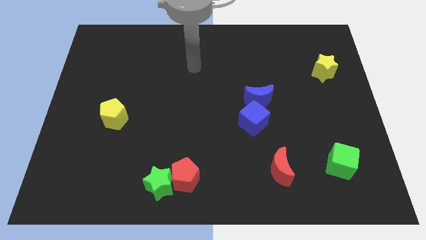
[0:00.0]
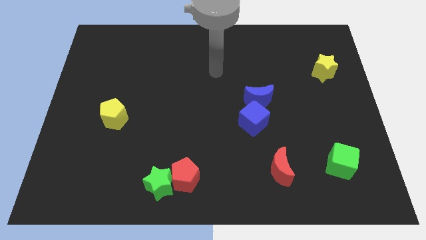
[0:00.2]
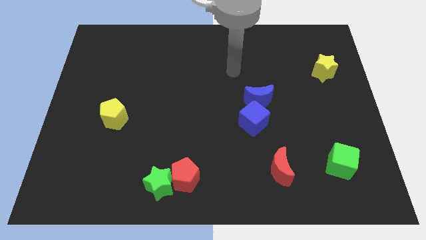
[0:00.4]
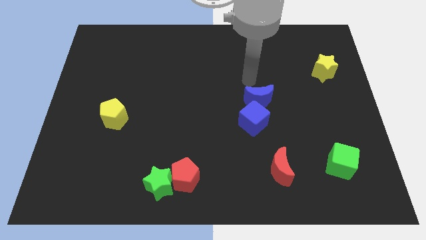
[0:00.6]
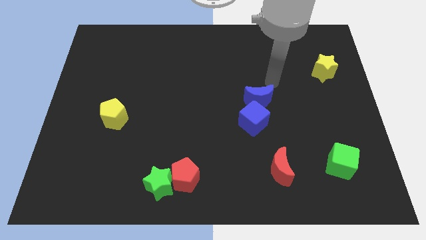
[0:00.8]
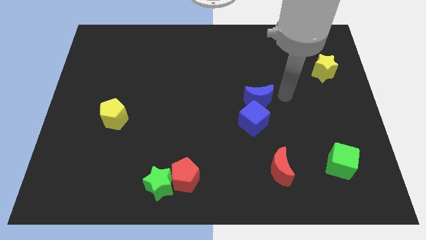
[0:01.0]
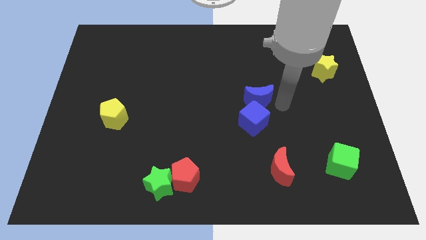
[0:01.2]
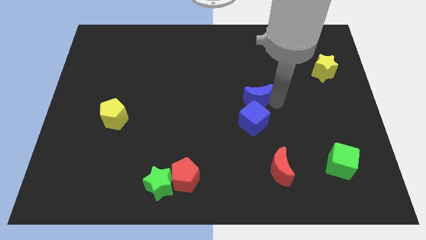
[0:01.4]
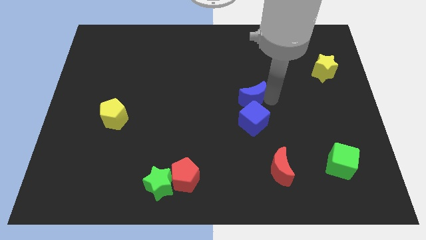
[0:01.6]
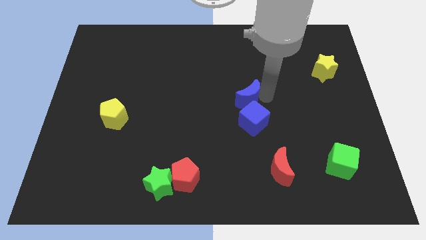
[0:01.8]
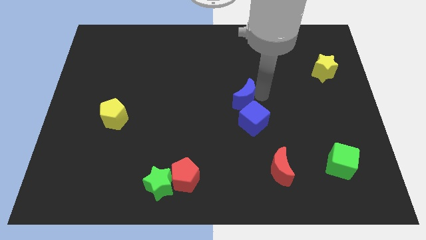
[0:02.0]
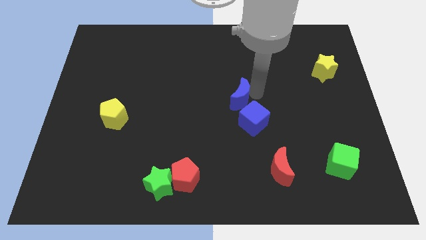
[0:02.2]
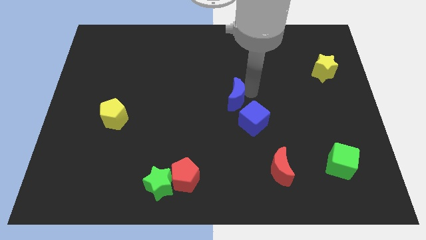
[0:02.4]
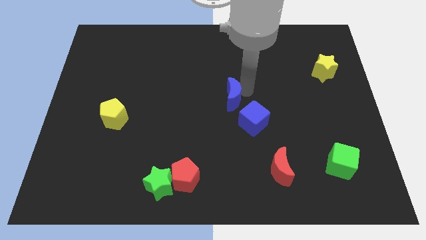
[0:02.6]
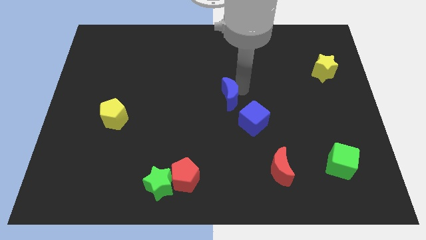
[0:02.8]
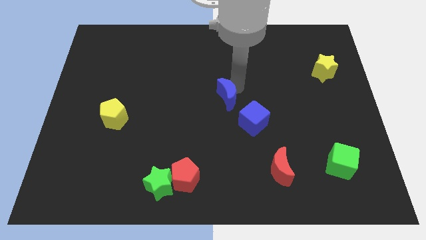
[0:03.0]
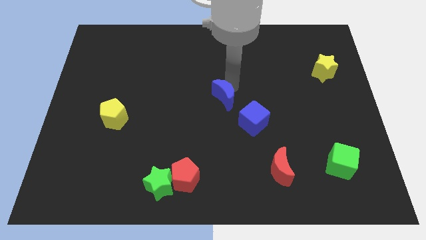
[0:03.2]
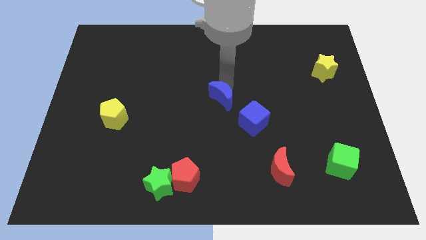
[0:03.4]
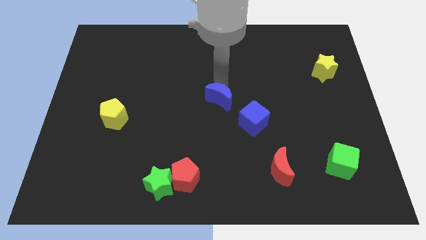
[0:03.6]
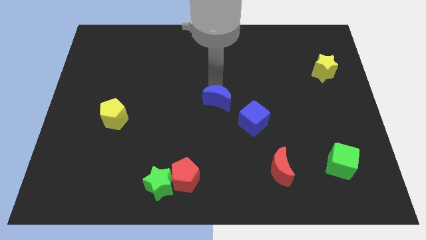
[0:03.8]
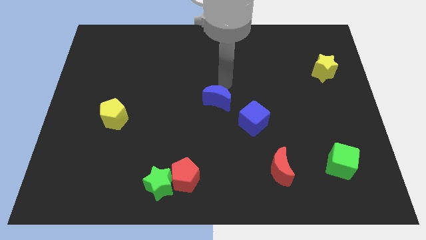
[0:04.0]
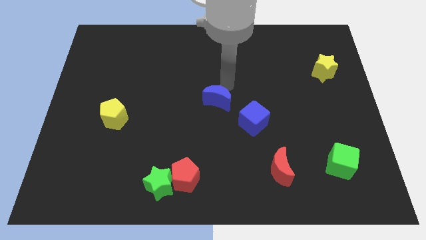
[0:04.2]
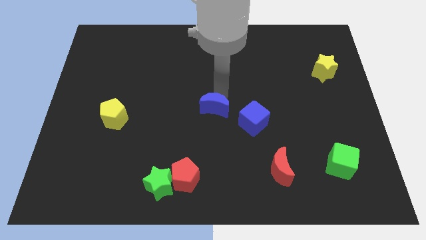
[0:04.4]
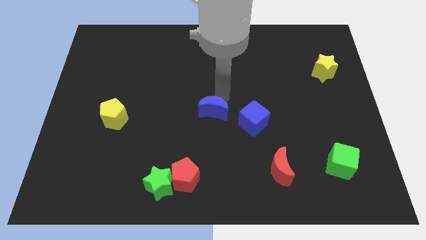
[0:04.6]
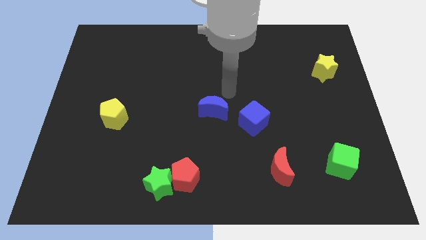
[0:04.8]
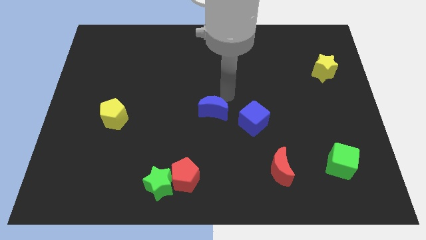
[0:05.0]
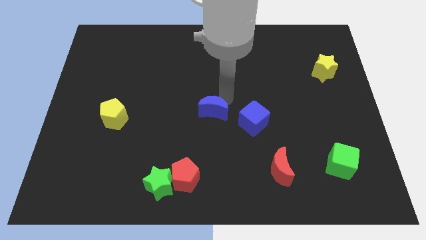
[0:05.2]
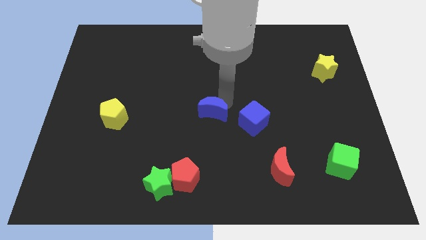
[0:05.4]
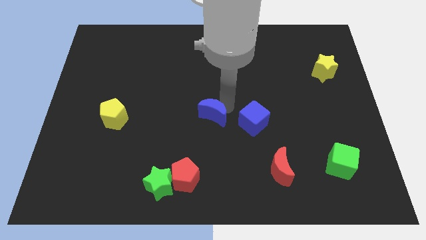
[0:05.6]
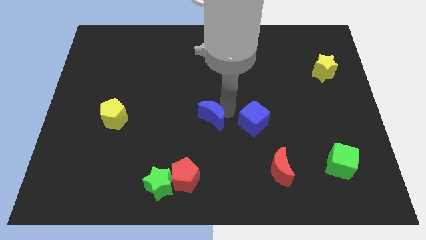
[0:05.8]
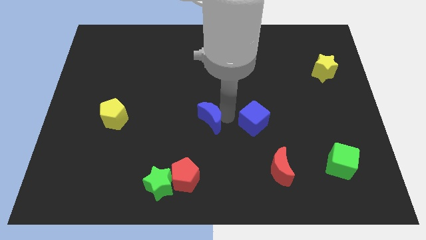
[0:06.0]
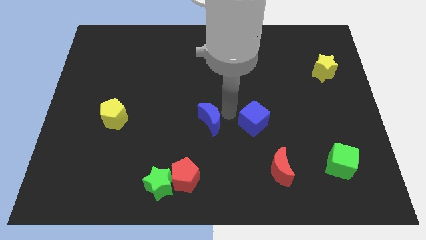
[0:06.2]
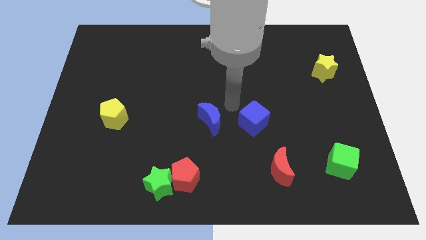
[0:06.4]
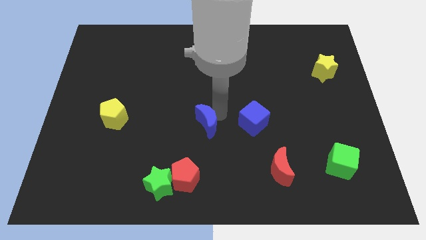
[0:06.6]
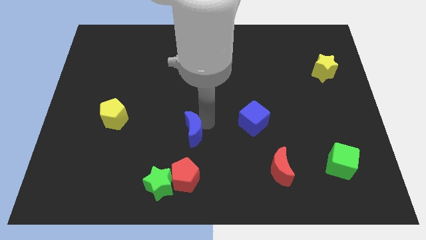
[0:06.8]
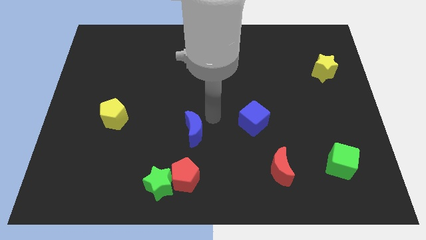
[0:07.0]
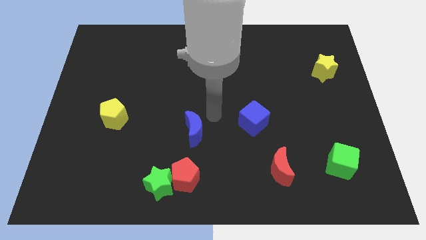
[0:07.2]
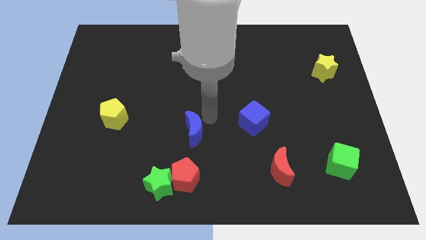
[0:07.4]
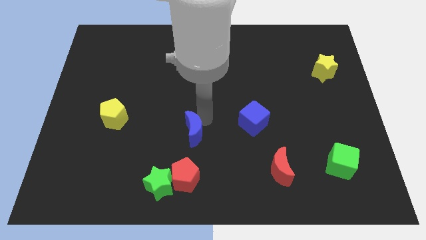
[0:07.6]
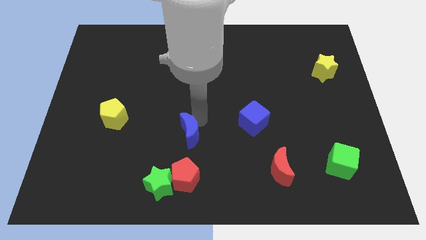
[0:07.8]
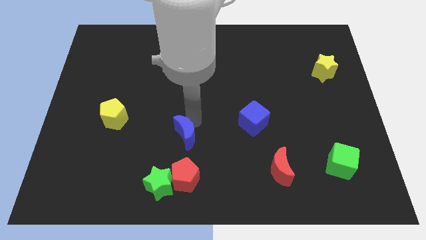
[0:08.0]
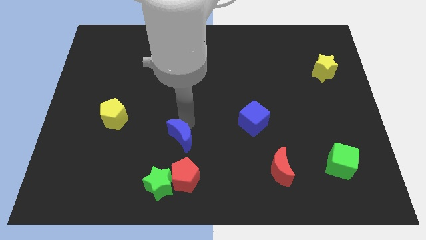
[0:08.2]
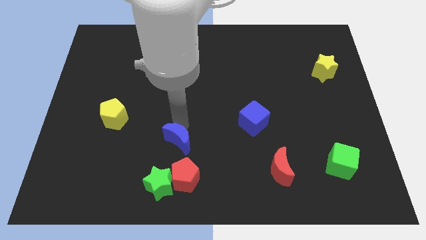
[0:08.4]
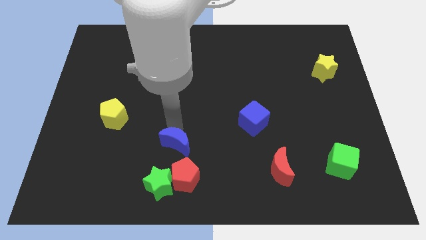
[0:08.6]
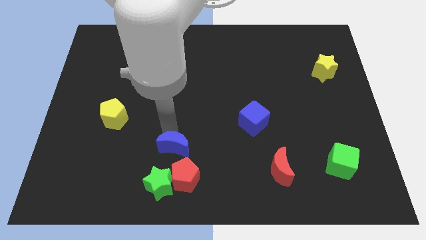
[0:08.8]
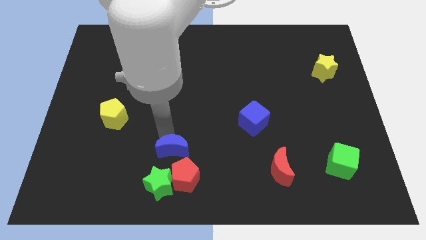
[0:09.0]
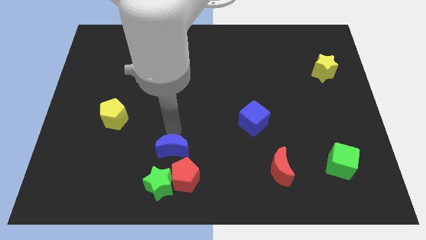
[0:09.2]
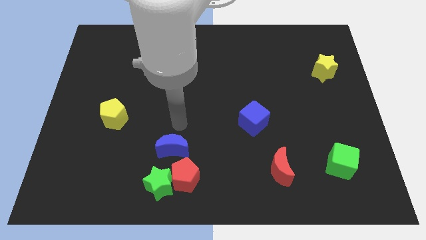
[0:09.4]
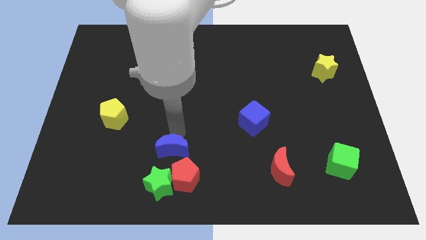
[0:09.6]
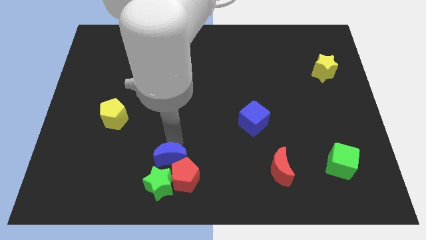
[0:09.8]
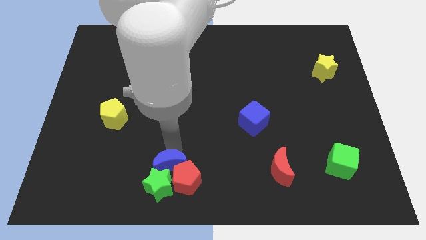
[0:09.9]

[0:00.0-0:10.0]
slide the blue moon to the green star

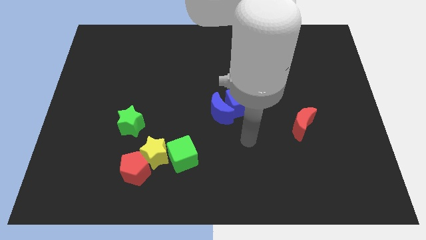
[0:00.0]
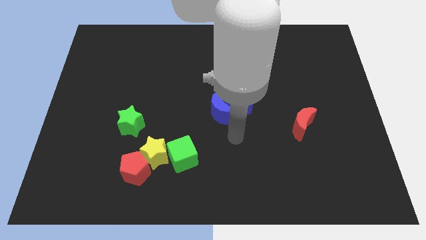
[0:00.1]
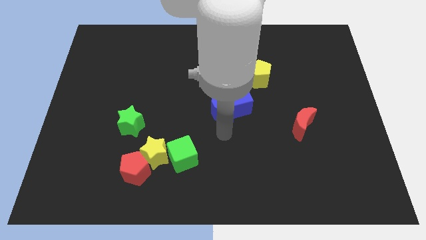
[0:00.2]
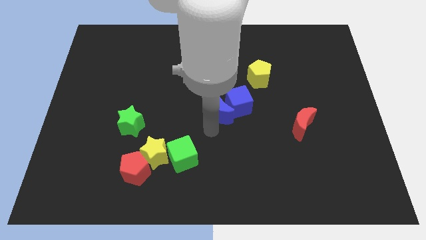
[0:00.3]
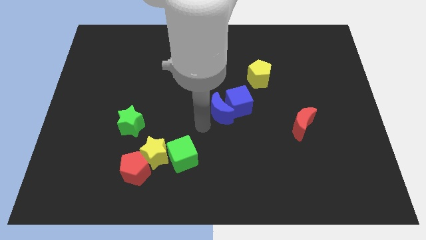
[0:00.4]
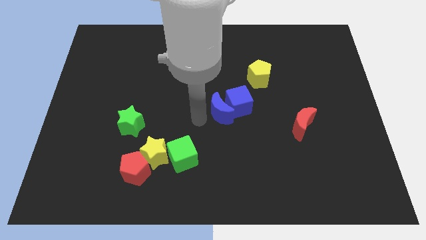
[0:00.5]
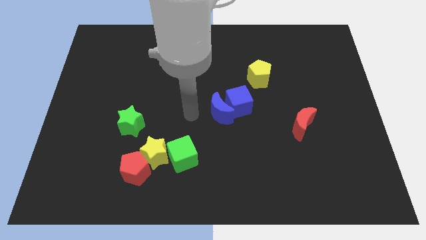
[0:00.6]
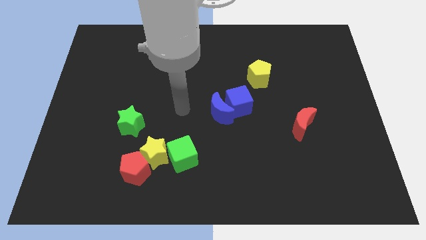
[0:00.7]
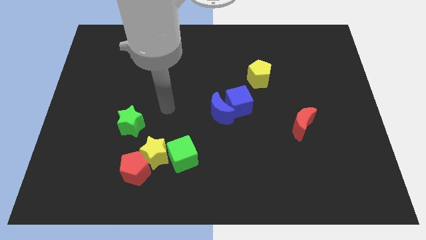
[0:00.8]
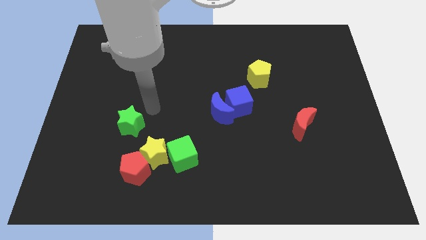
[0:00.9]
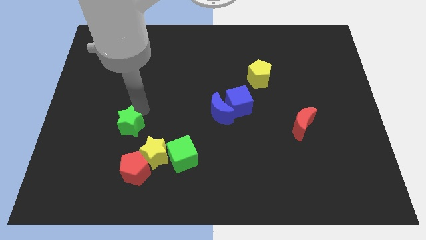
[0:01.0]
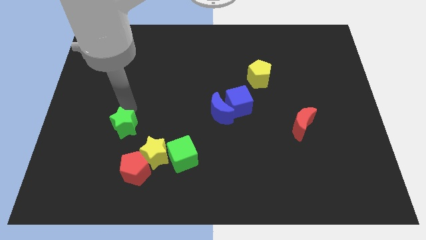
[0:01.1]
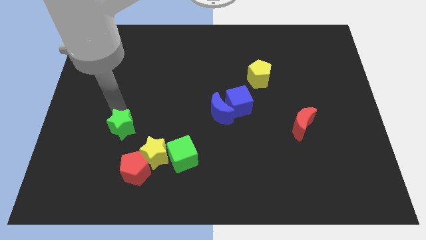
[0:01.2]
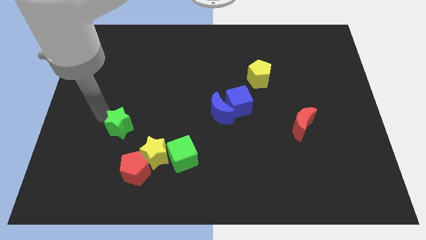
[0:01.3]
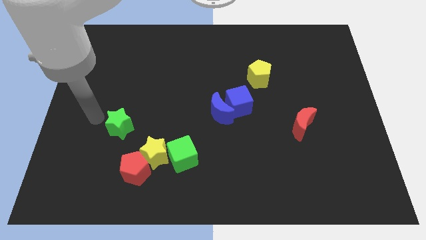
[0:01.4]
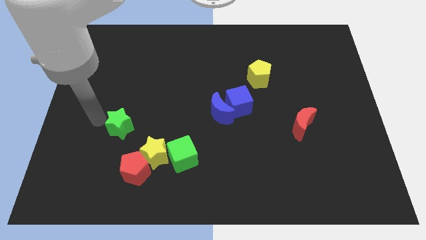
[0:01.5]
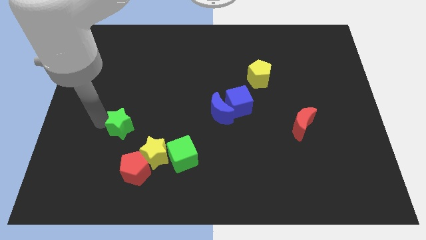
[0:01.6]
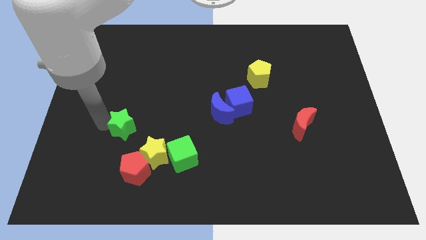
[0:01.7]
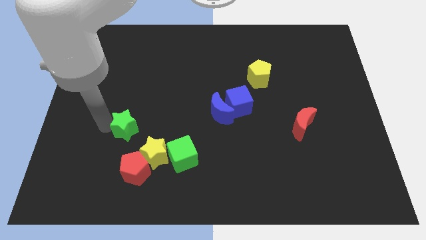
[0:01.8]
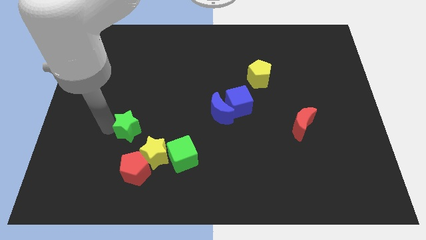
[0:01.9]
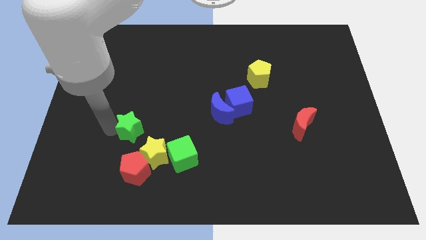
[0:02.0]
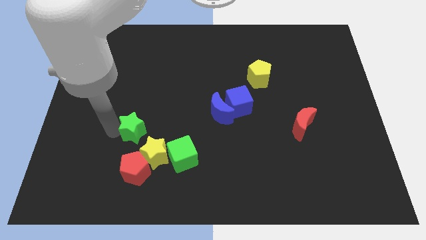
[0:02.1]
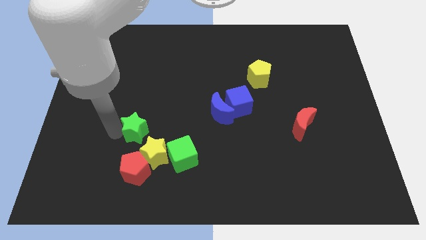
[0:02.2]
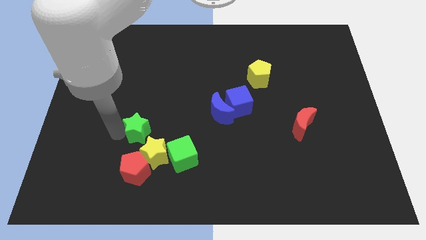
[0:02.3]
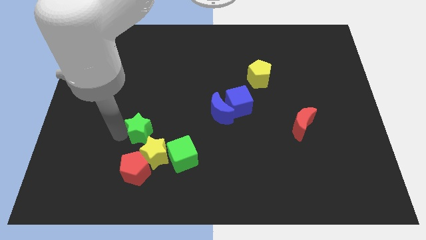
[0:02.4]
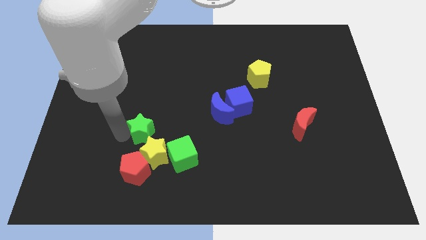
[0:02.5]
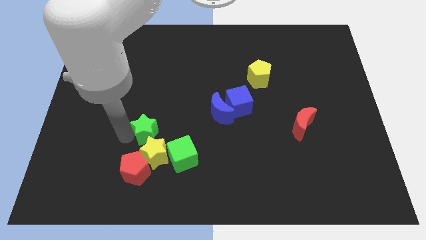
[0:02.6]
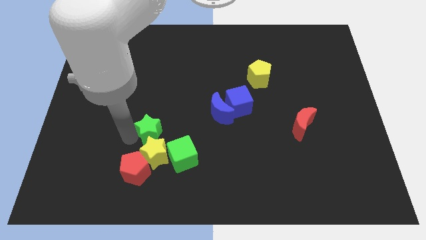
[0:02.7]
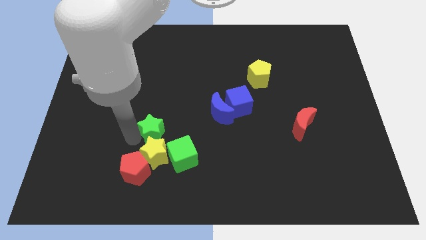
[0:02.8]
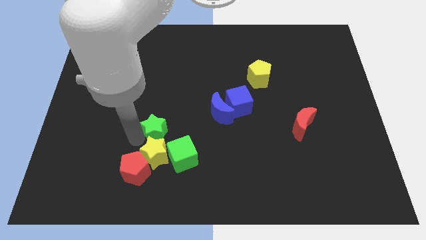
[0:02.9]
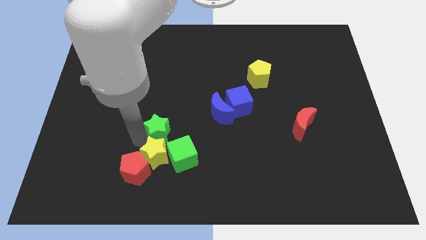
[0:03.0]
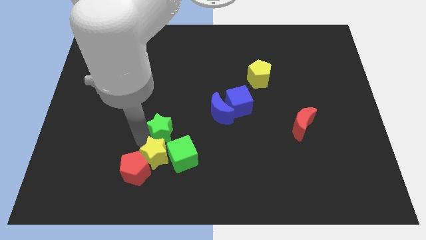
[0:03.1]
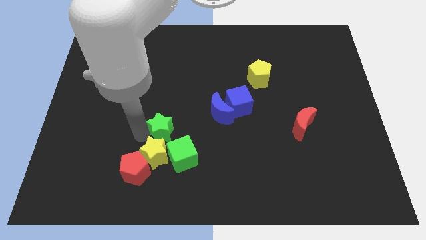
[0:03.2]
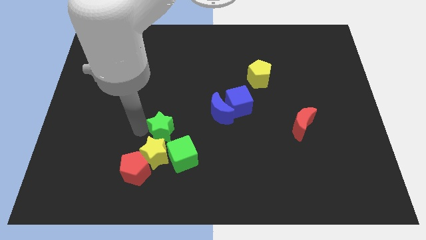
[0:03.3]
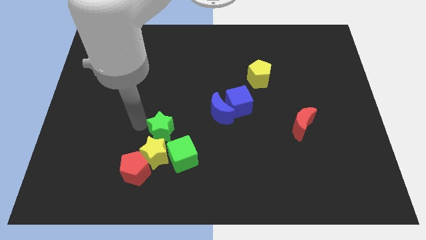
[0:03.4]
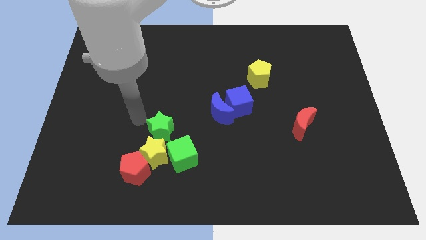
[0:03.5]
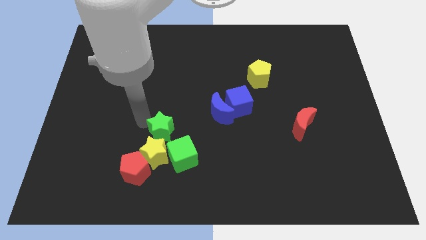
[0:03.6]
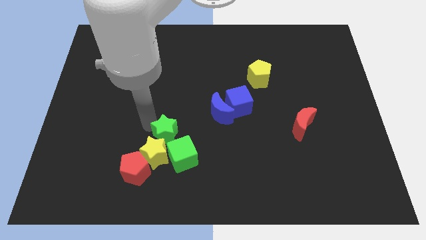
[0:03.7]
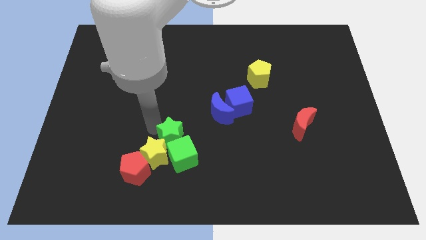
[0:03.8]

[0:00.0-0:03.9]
push the green star next to the green cube
